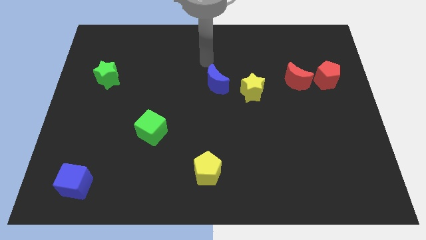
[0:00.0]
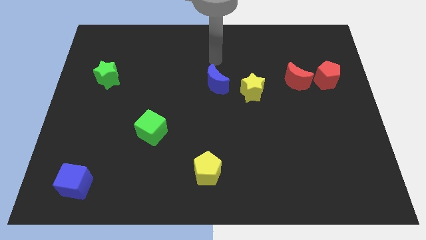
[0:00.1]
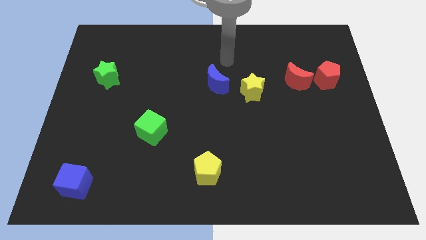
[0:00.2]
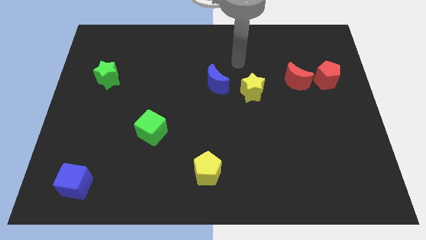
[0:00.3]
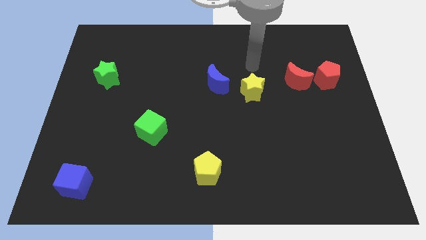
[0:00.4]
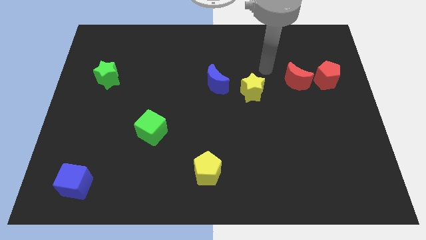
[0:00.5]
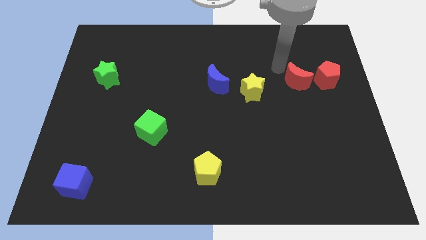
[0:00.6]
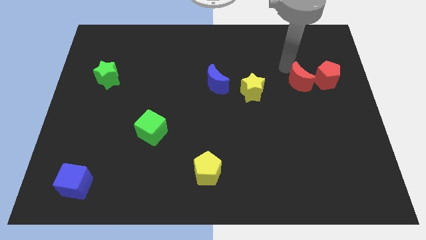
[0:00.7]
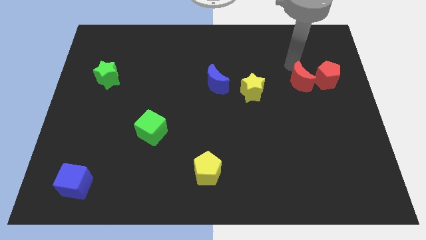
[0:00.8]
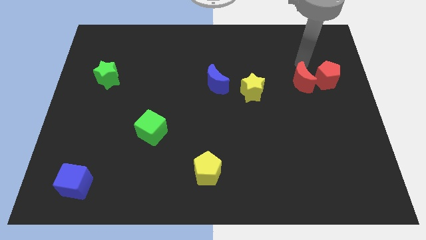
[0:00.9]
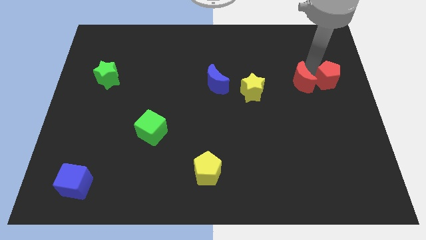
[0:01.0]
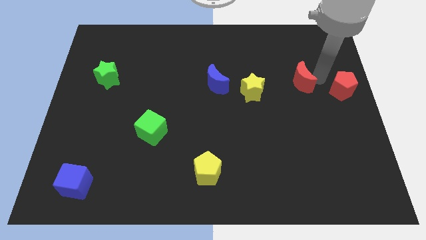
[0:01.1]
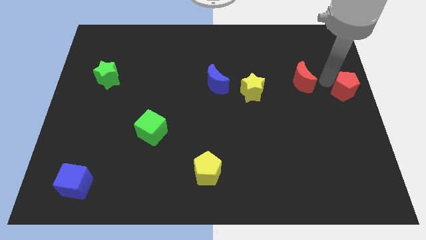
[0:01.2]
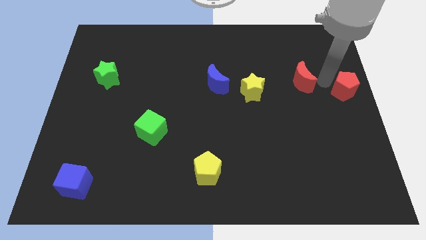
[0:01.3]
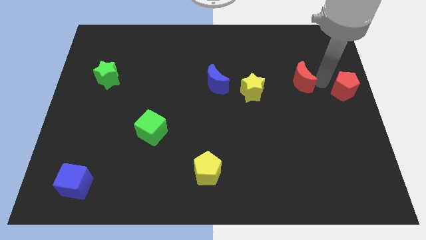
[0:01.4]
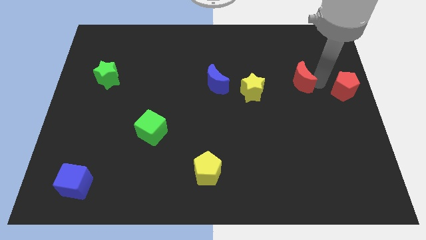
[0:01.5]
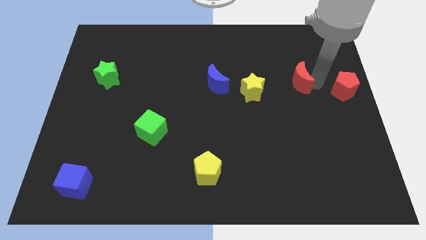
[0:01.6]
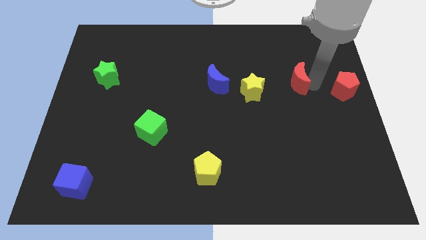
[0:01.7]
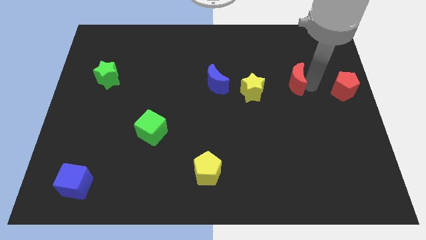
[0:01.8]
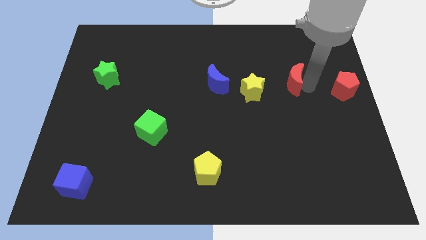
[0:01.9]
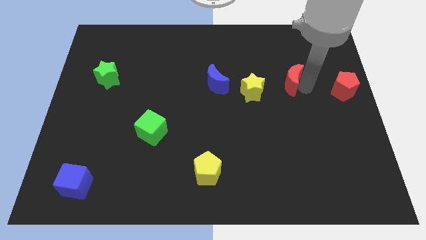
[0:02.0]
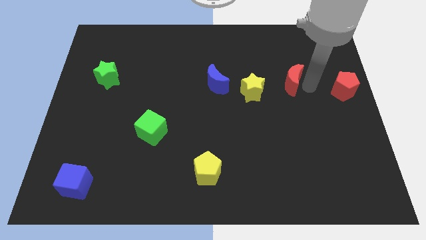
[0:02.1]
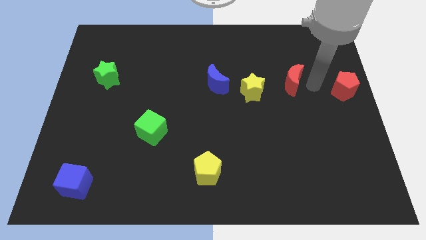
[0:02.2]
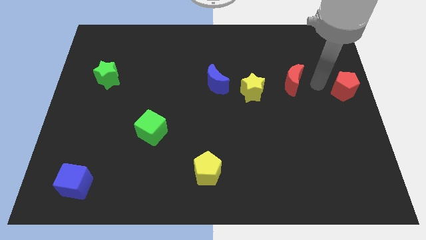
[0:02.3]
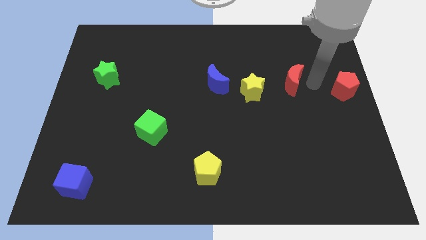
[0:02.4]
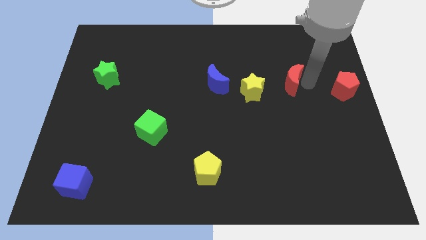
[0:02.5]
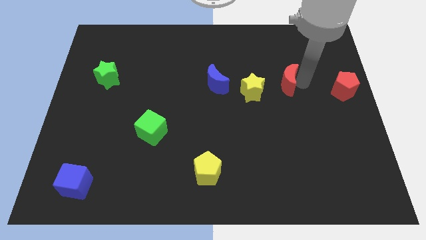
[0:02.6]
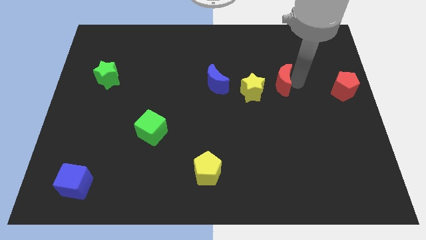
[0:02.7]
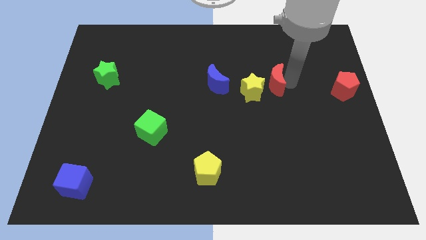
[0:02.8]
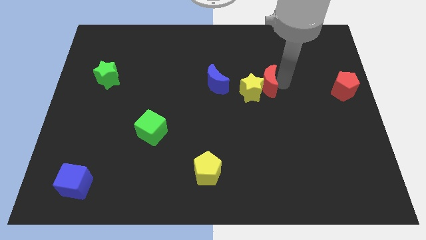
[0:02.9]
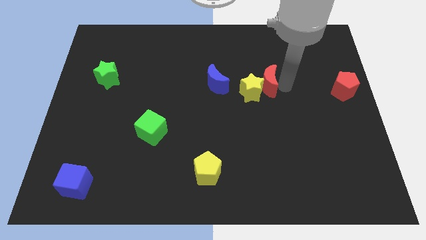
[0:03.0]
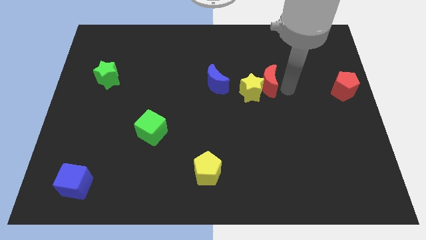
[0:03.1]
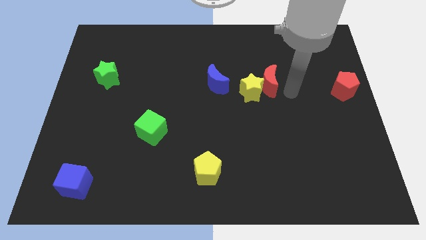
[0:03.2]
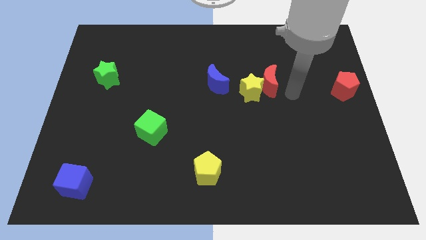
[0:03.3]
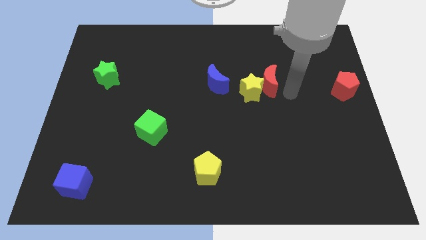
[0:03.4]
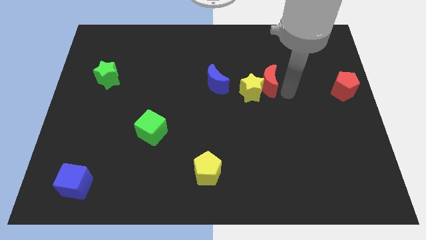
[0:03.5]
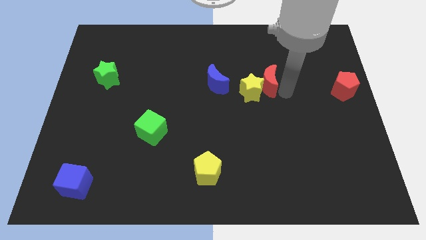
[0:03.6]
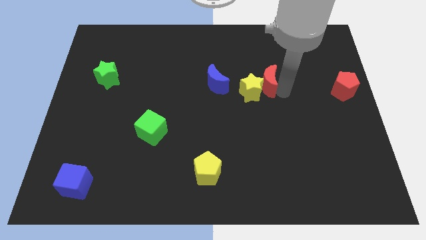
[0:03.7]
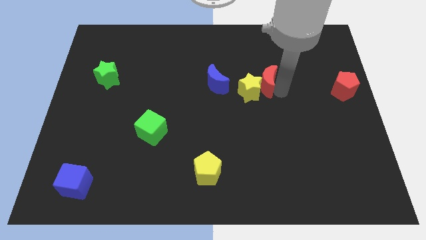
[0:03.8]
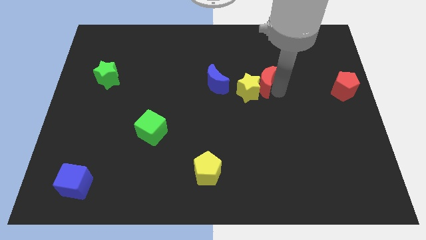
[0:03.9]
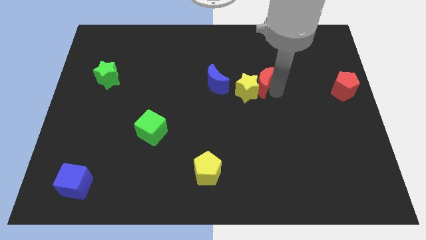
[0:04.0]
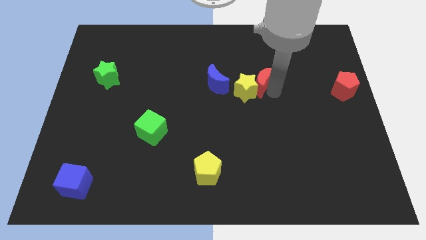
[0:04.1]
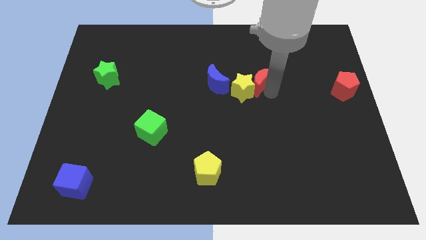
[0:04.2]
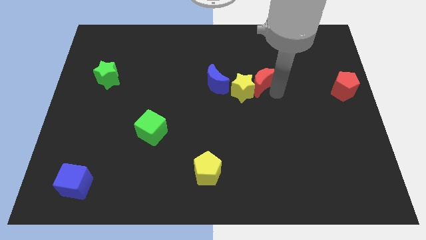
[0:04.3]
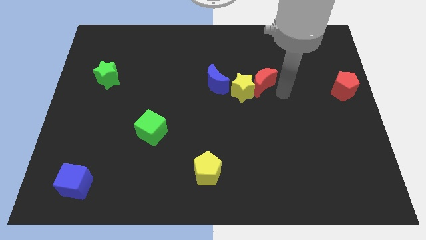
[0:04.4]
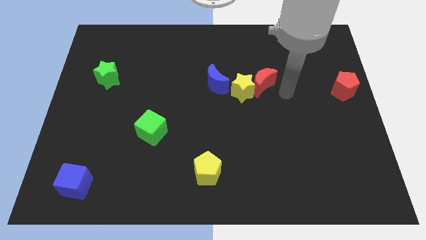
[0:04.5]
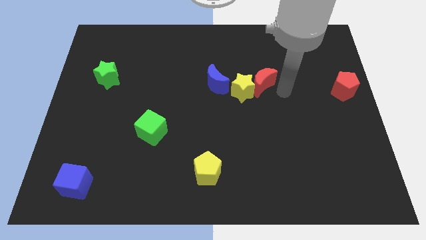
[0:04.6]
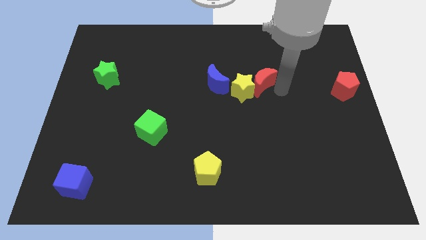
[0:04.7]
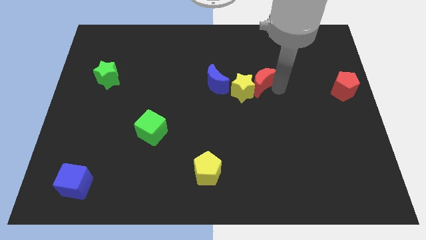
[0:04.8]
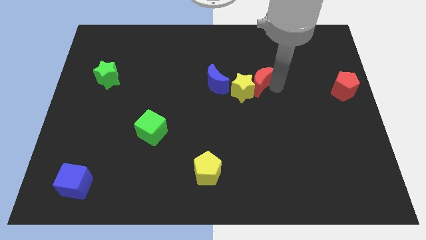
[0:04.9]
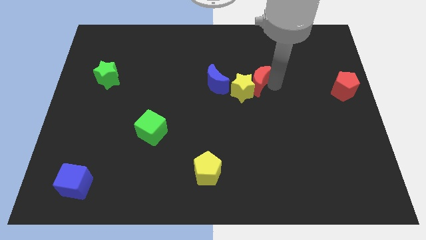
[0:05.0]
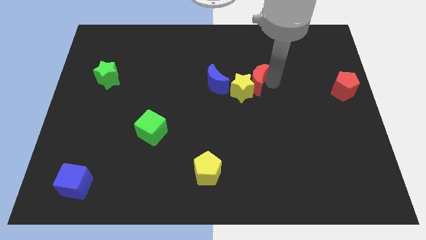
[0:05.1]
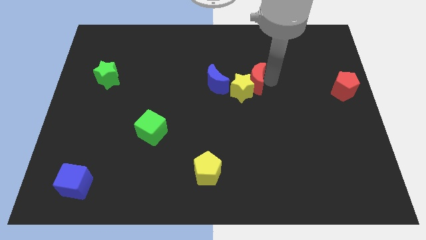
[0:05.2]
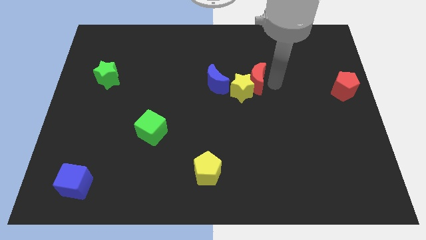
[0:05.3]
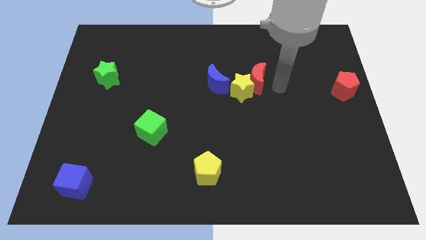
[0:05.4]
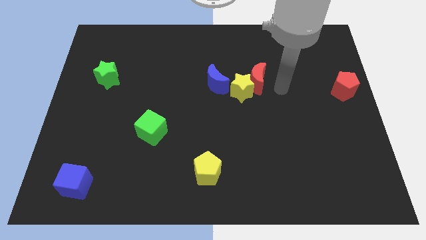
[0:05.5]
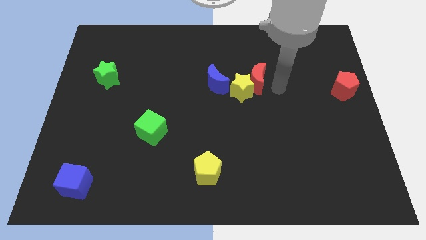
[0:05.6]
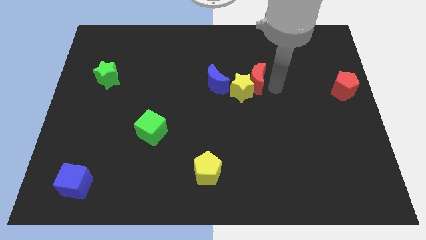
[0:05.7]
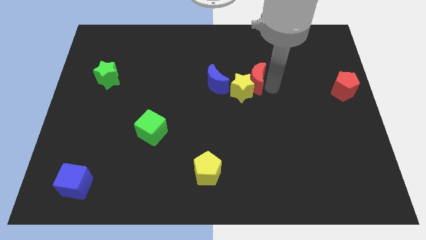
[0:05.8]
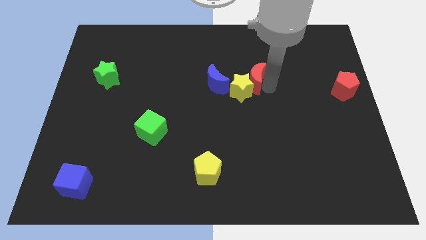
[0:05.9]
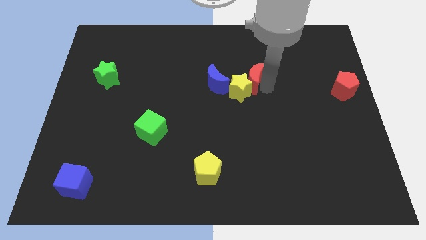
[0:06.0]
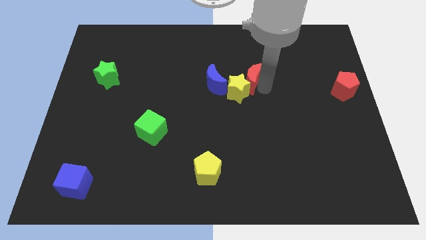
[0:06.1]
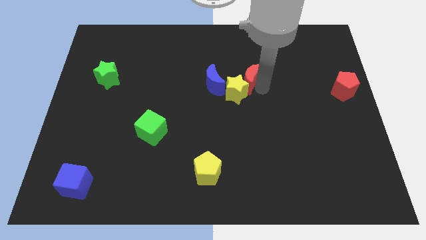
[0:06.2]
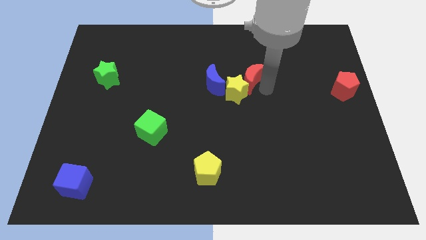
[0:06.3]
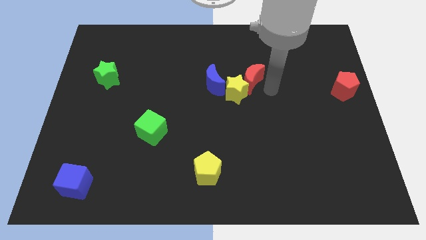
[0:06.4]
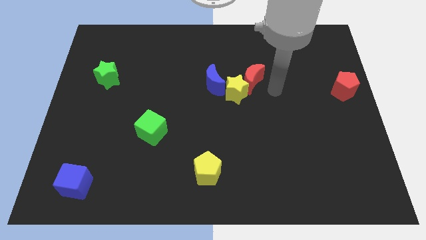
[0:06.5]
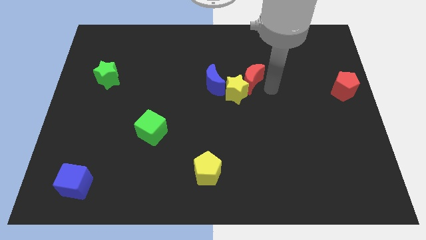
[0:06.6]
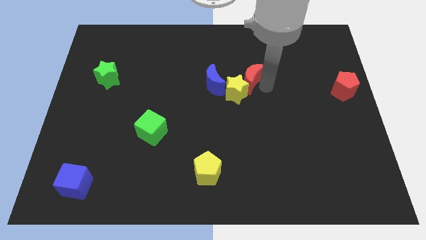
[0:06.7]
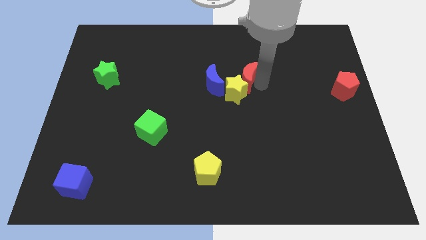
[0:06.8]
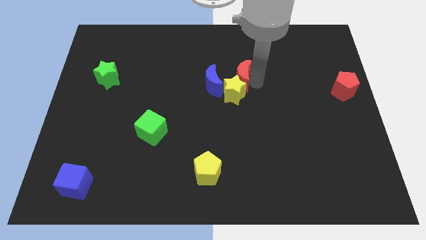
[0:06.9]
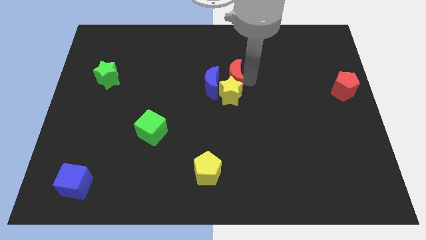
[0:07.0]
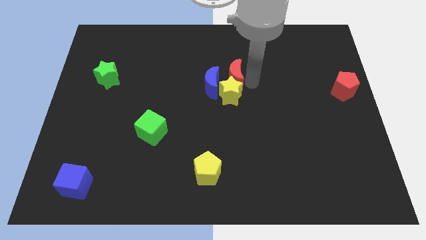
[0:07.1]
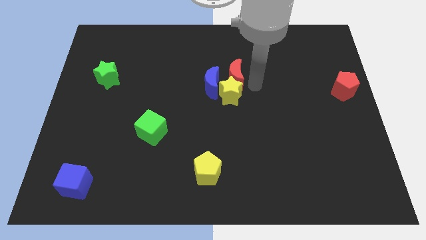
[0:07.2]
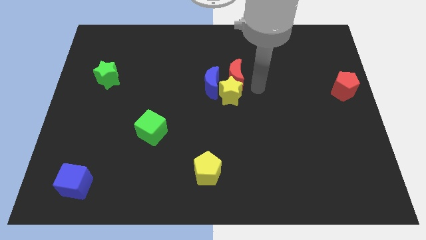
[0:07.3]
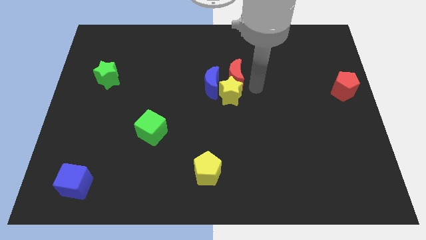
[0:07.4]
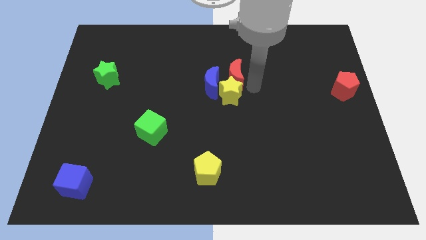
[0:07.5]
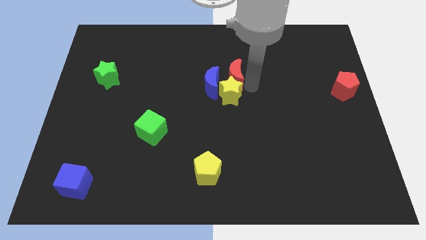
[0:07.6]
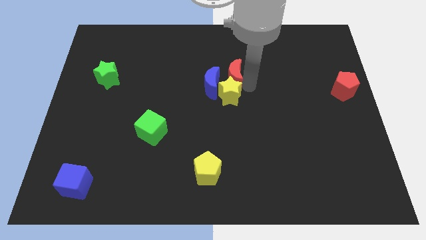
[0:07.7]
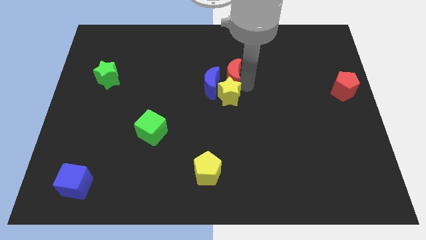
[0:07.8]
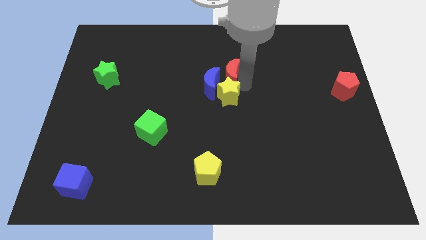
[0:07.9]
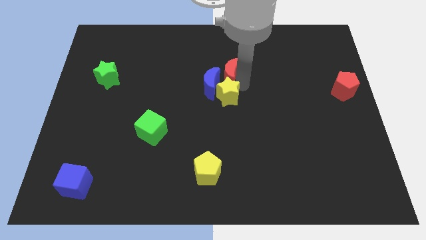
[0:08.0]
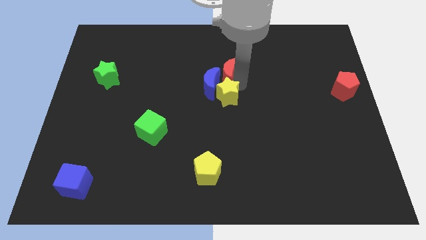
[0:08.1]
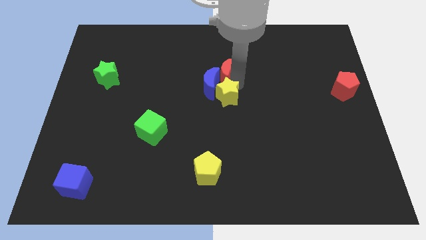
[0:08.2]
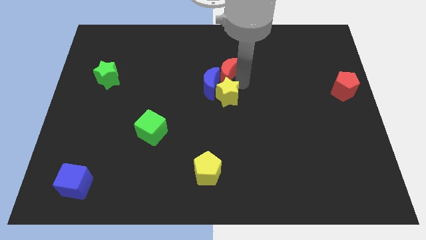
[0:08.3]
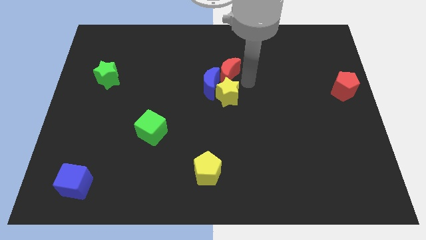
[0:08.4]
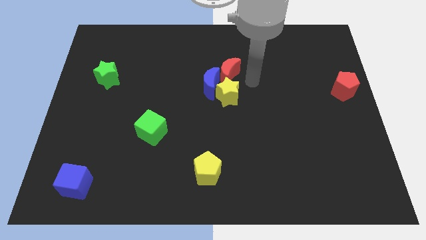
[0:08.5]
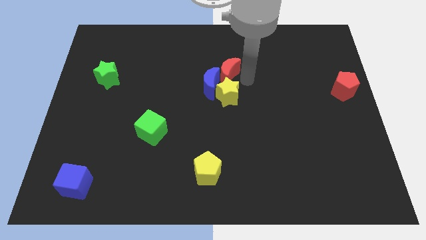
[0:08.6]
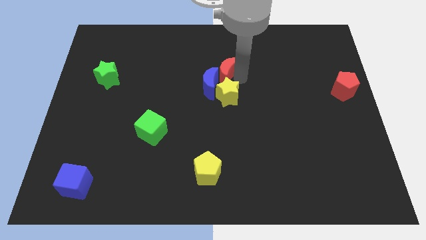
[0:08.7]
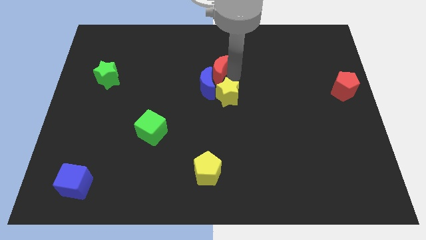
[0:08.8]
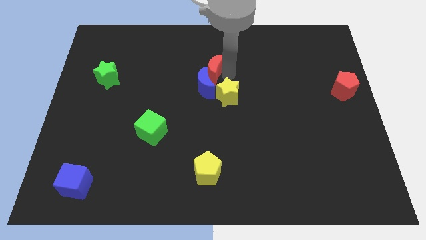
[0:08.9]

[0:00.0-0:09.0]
push the red moon left
